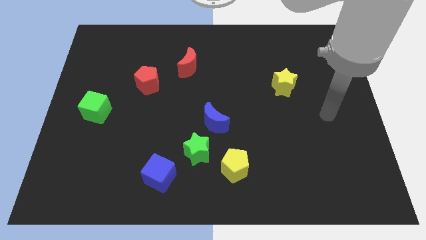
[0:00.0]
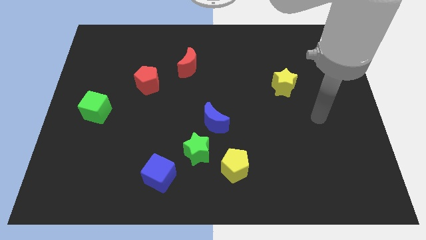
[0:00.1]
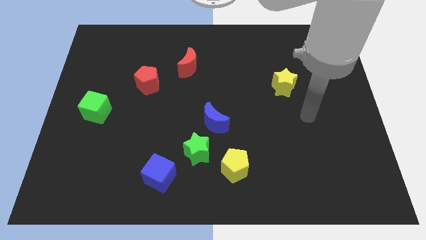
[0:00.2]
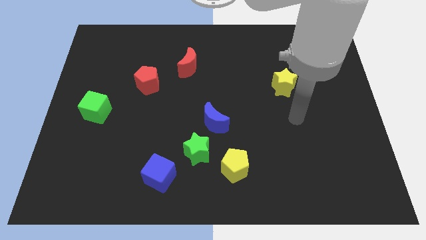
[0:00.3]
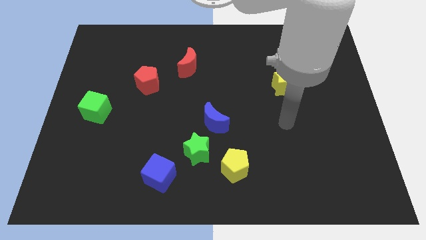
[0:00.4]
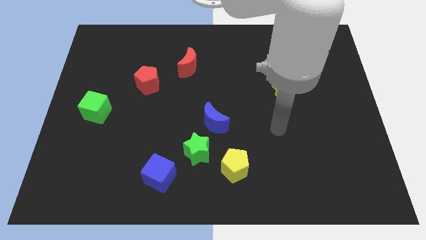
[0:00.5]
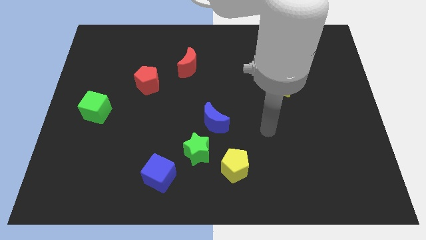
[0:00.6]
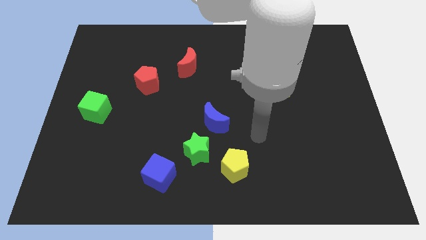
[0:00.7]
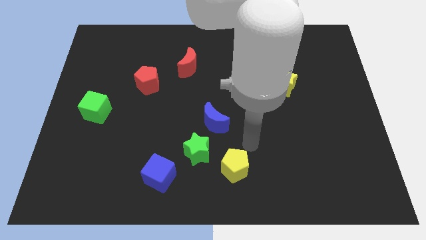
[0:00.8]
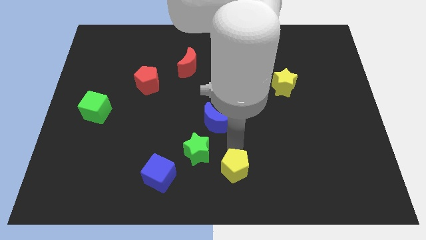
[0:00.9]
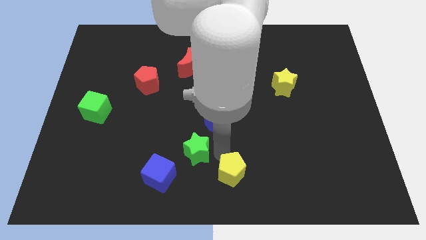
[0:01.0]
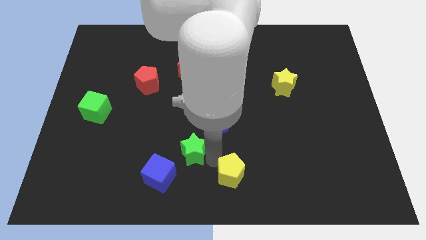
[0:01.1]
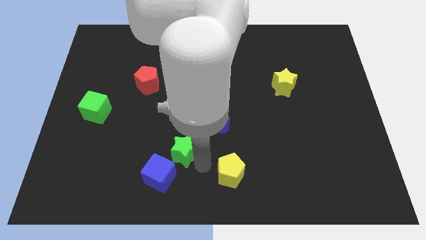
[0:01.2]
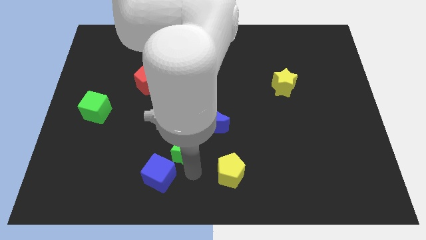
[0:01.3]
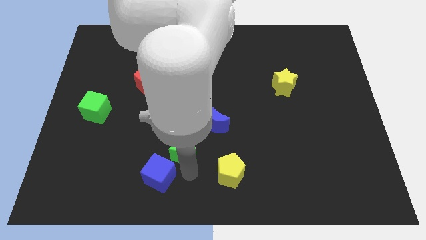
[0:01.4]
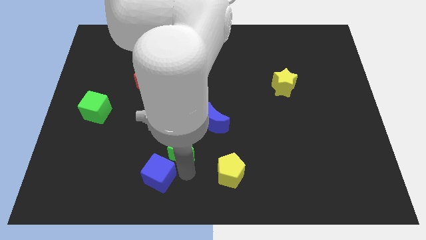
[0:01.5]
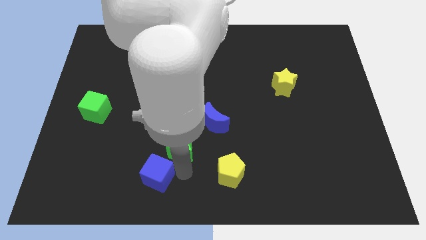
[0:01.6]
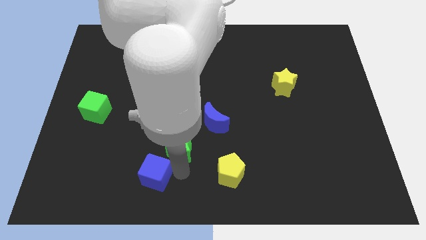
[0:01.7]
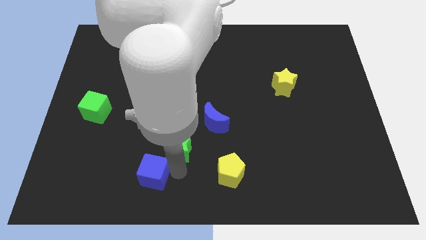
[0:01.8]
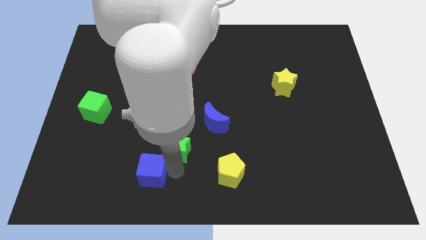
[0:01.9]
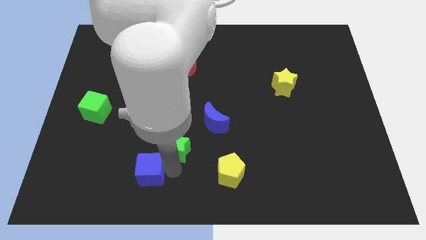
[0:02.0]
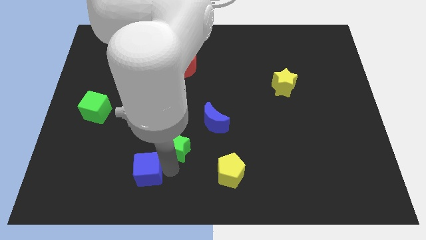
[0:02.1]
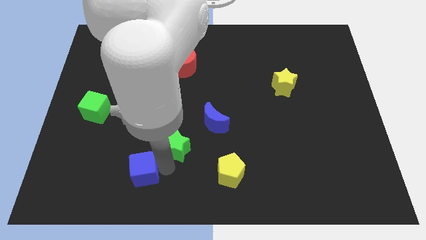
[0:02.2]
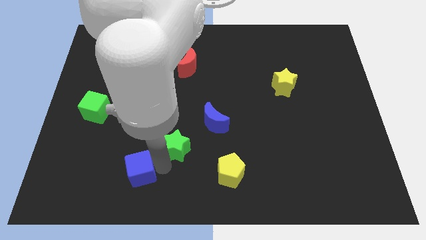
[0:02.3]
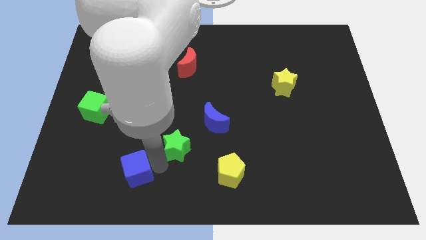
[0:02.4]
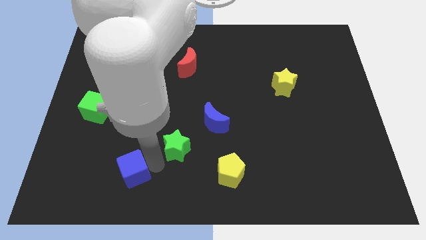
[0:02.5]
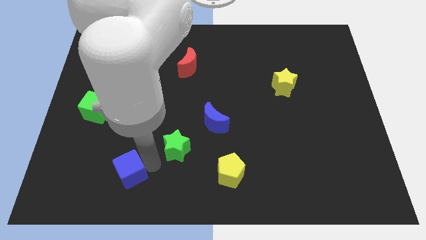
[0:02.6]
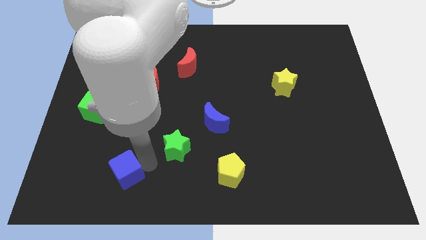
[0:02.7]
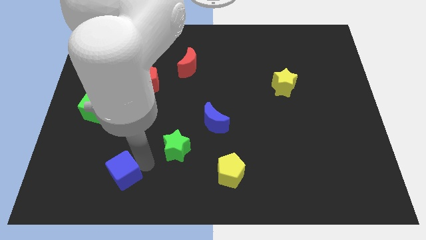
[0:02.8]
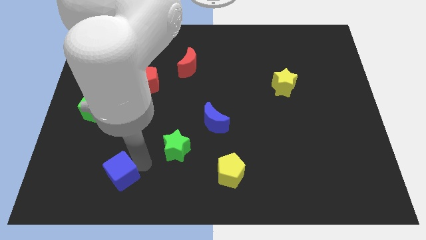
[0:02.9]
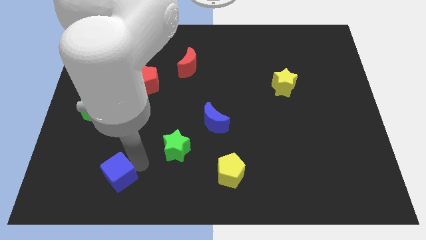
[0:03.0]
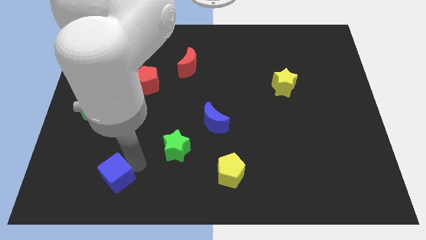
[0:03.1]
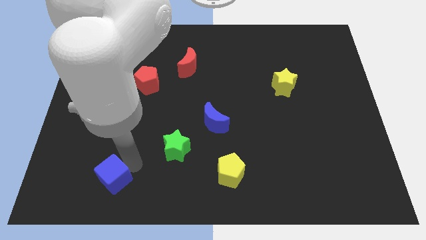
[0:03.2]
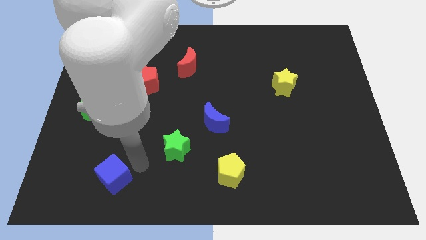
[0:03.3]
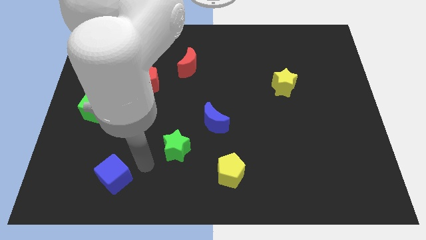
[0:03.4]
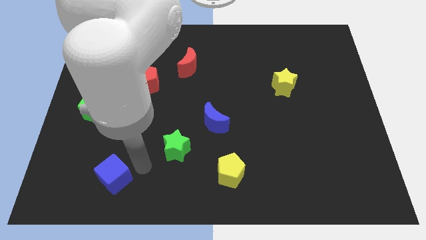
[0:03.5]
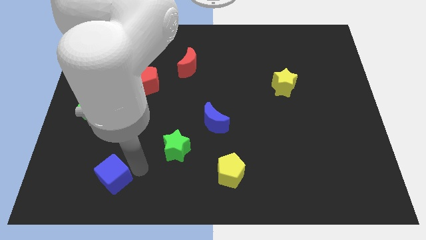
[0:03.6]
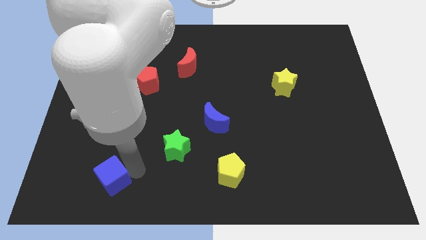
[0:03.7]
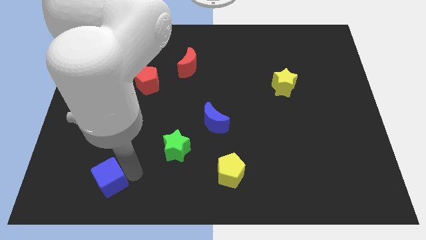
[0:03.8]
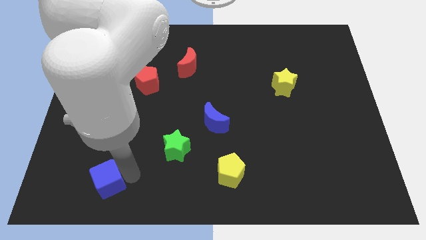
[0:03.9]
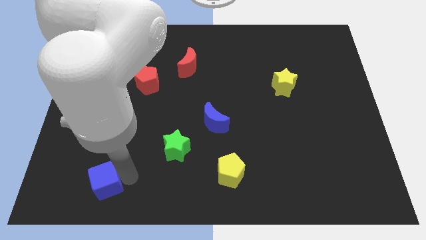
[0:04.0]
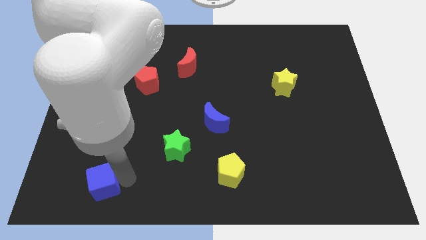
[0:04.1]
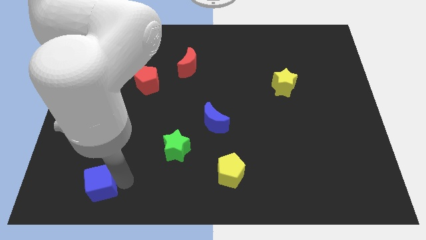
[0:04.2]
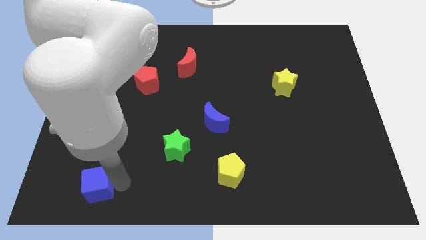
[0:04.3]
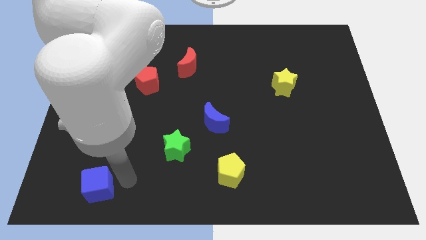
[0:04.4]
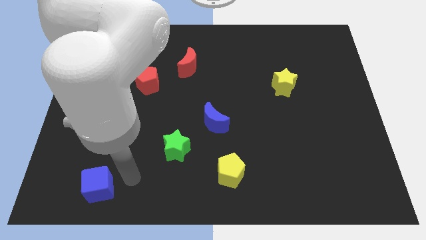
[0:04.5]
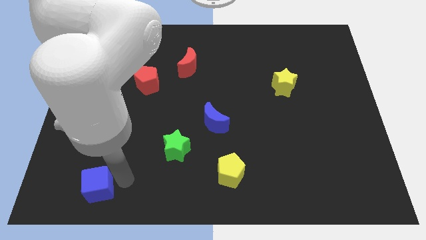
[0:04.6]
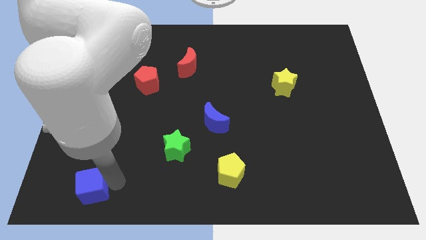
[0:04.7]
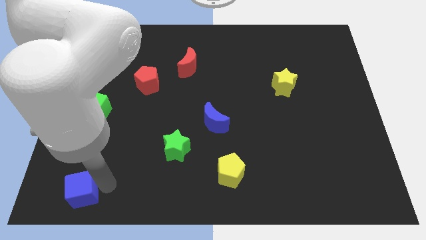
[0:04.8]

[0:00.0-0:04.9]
slide the blue cube to the bottom left corner

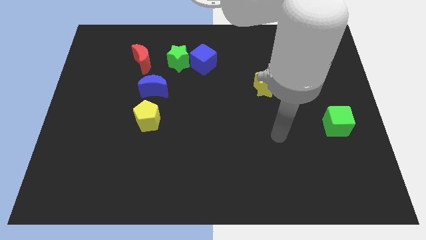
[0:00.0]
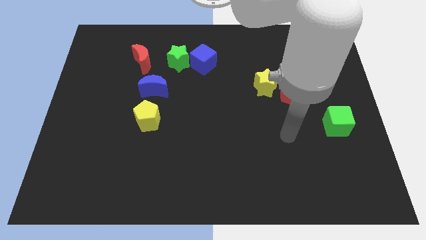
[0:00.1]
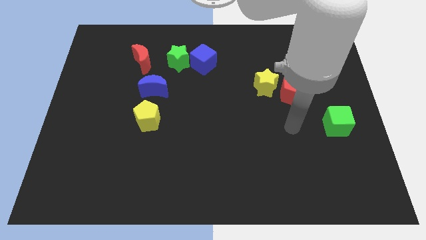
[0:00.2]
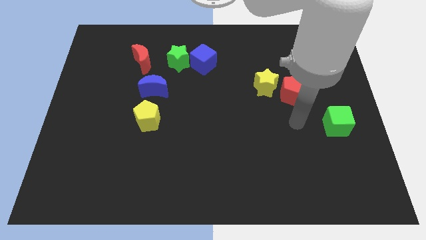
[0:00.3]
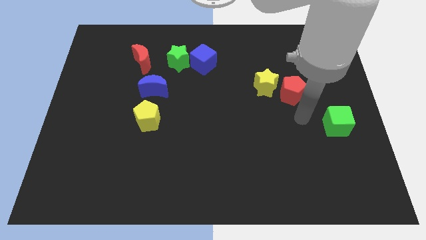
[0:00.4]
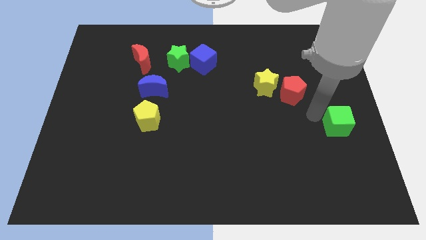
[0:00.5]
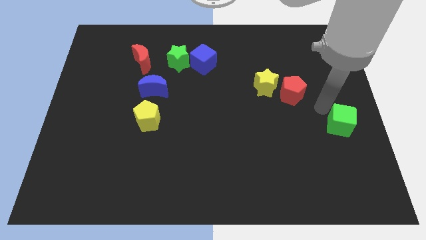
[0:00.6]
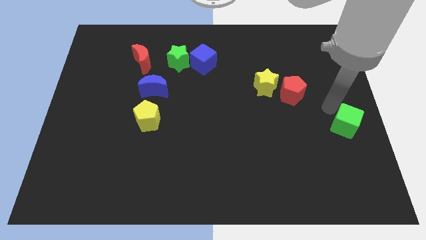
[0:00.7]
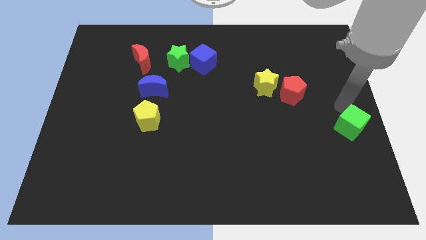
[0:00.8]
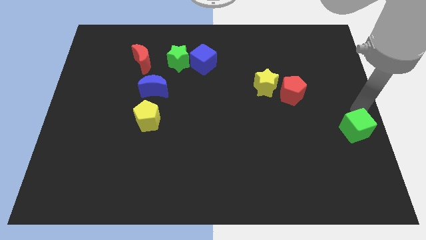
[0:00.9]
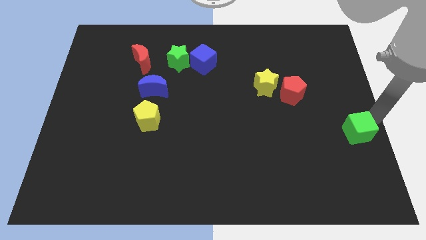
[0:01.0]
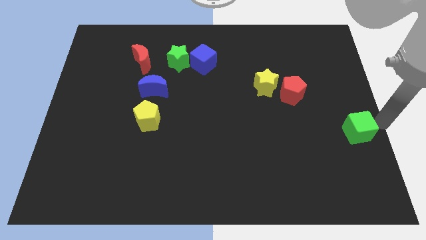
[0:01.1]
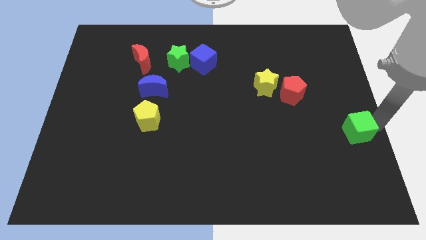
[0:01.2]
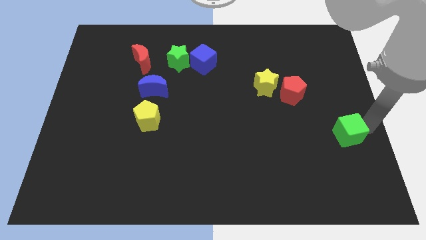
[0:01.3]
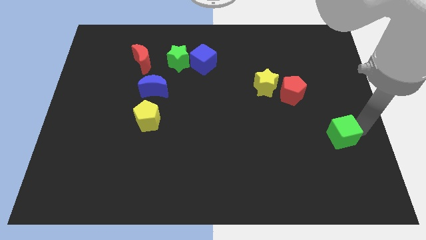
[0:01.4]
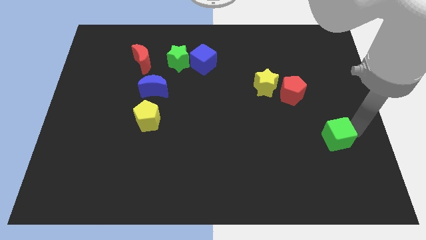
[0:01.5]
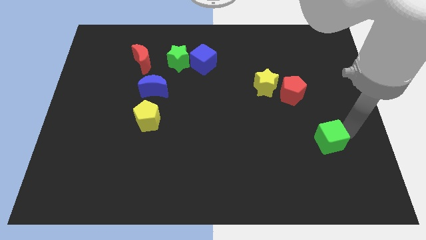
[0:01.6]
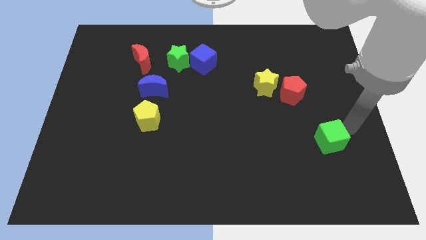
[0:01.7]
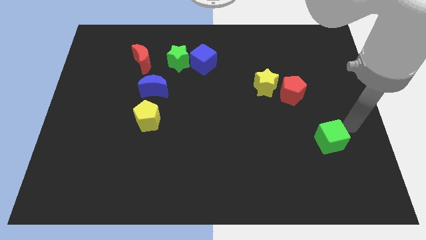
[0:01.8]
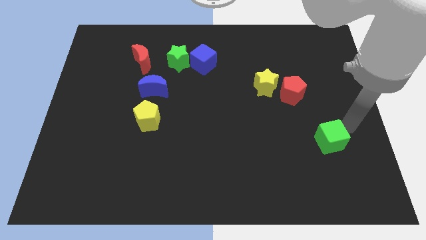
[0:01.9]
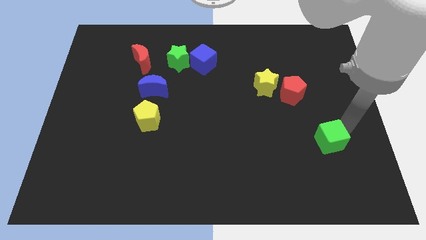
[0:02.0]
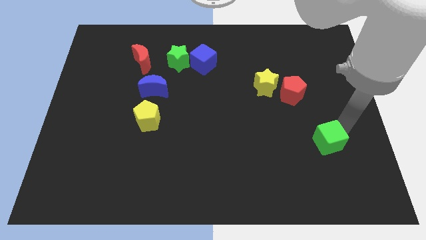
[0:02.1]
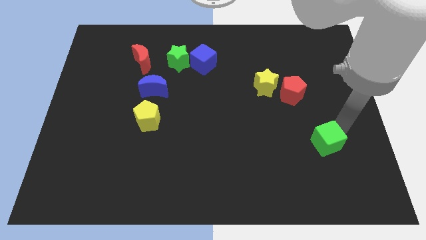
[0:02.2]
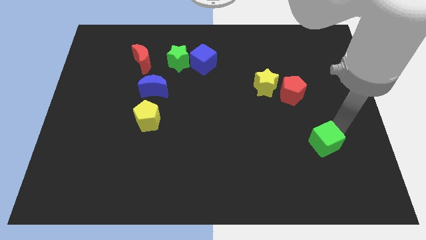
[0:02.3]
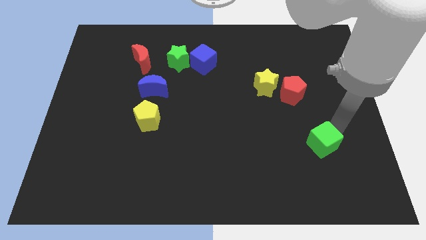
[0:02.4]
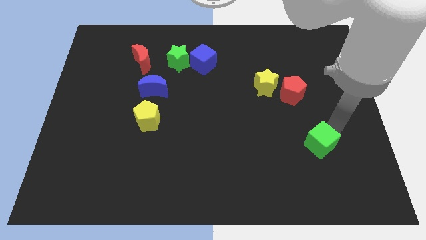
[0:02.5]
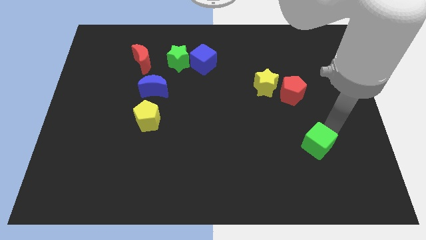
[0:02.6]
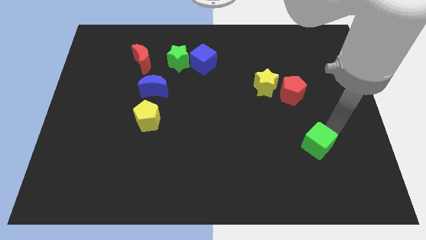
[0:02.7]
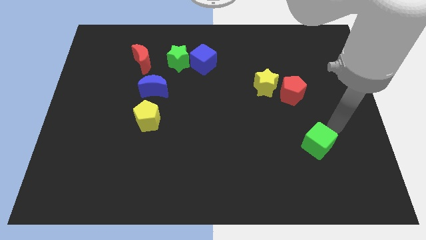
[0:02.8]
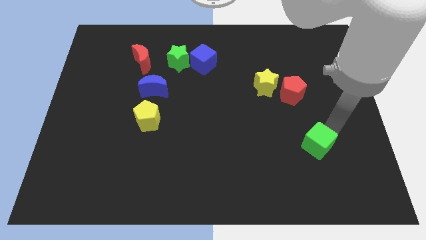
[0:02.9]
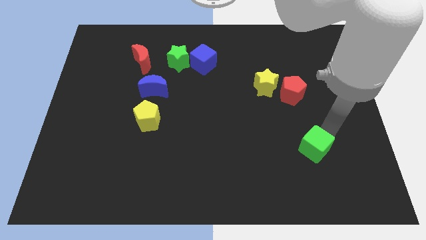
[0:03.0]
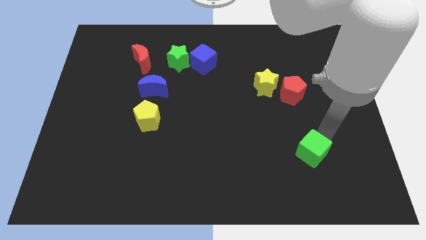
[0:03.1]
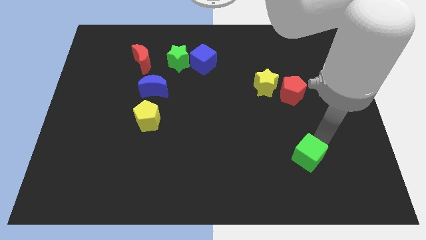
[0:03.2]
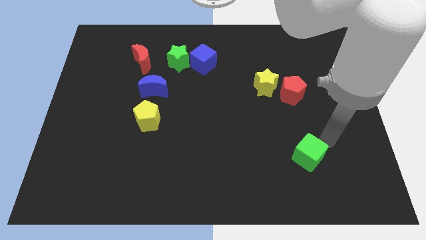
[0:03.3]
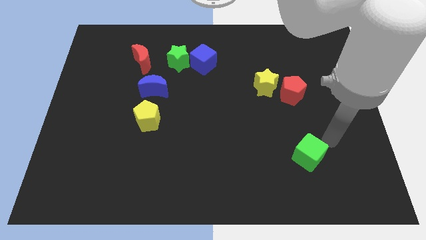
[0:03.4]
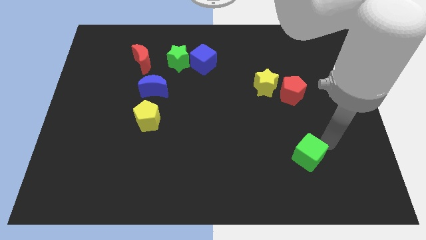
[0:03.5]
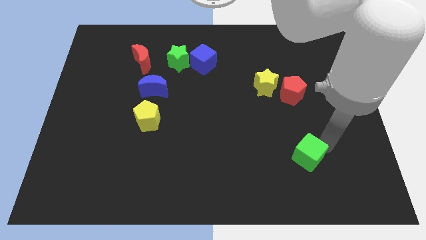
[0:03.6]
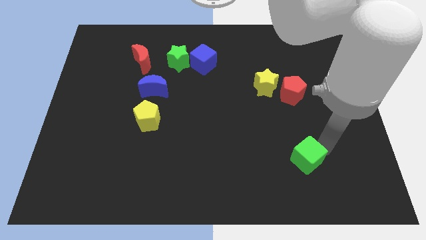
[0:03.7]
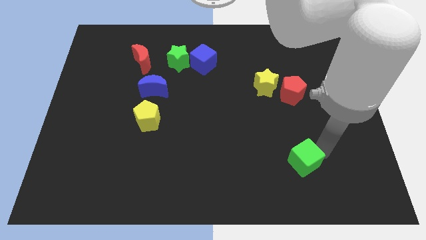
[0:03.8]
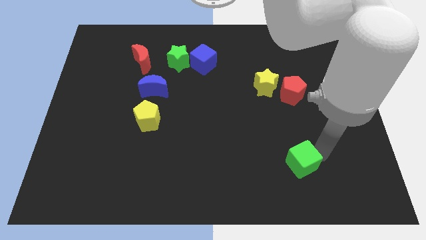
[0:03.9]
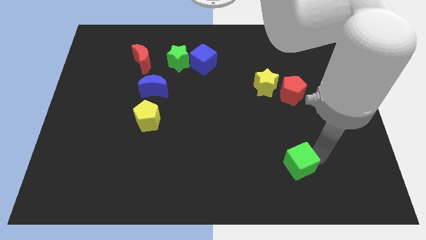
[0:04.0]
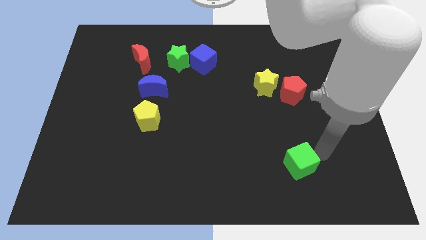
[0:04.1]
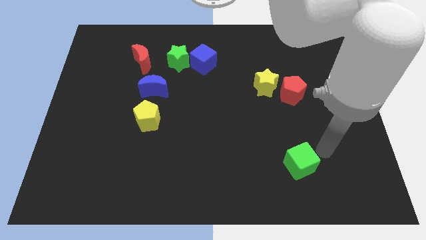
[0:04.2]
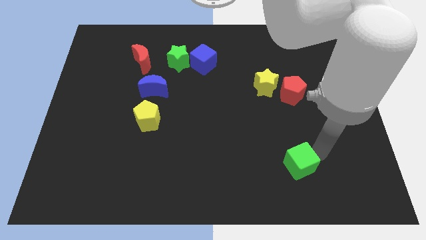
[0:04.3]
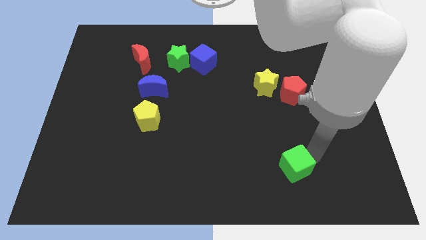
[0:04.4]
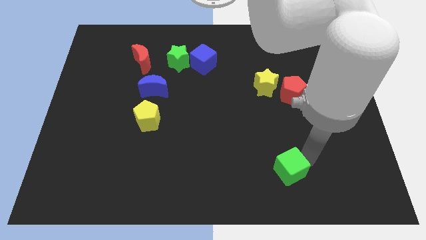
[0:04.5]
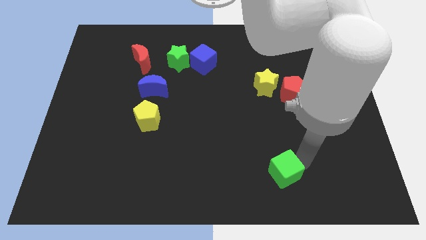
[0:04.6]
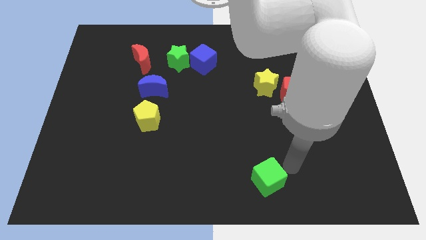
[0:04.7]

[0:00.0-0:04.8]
slide the green cube to the bottom side
